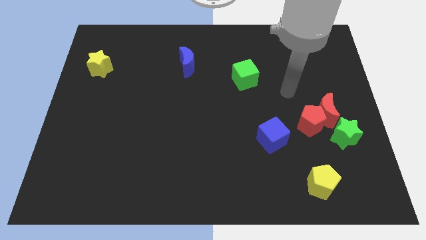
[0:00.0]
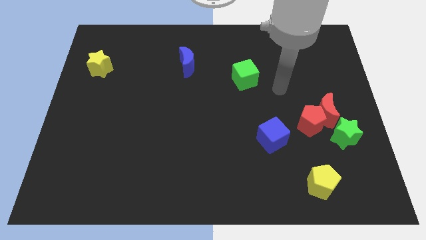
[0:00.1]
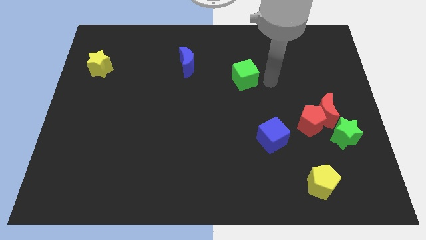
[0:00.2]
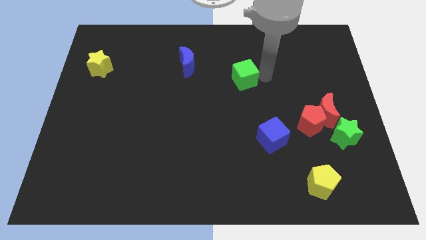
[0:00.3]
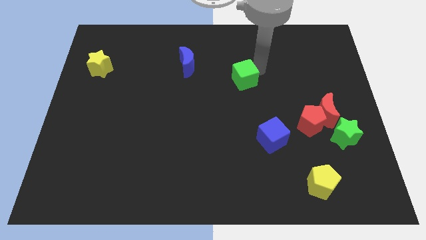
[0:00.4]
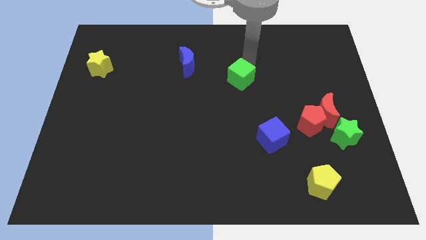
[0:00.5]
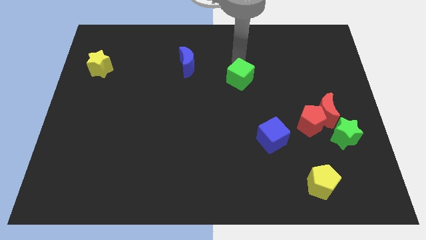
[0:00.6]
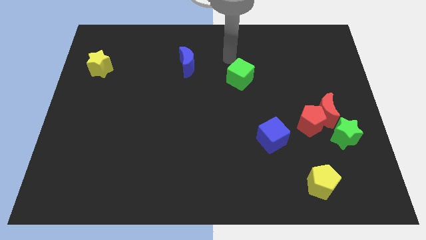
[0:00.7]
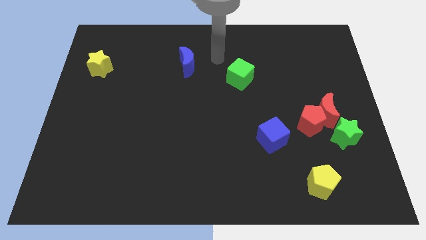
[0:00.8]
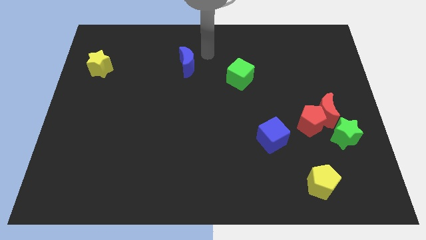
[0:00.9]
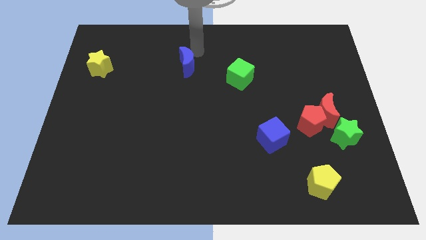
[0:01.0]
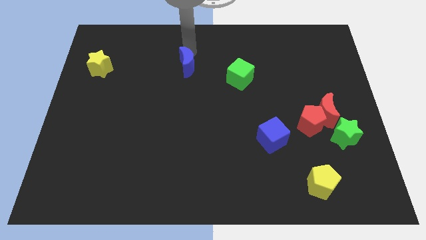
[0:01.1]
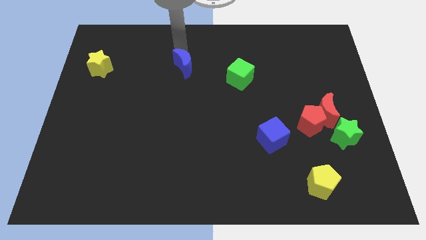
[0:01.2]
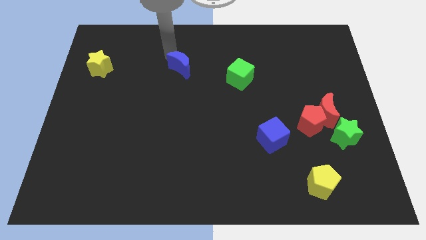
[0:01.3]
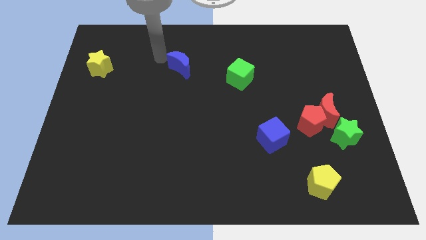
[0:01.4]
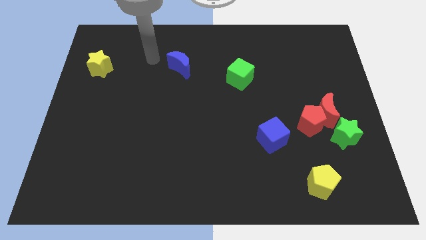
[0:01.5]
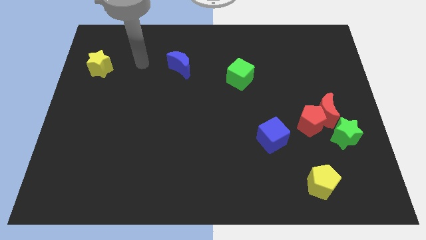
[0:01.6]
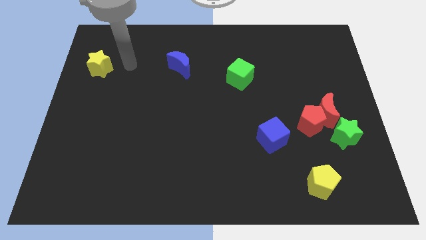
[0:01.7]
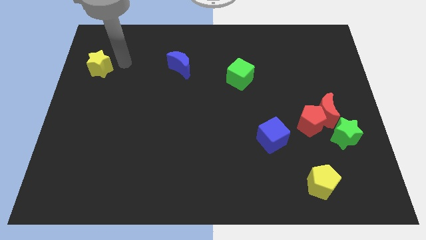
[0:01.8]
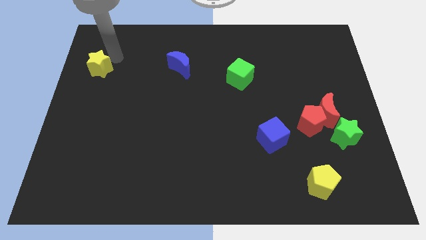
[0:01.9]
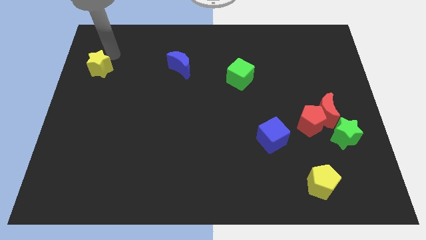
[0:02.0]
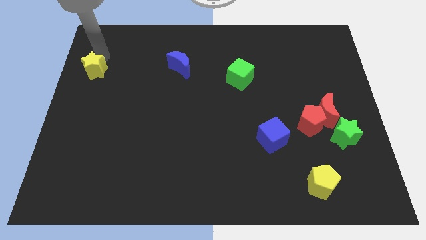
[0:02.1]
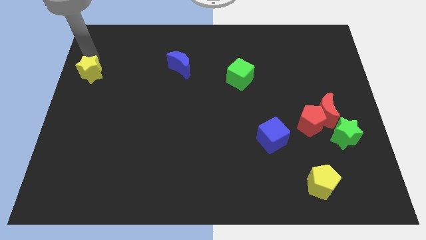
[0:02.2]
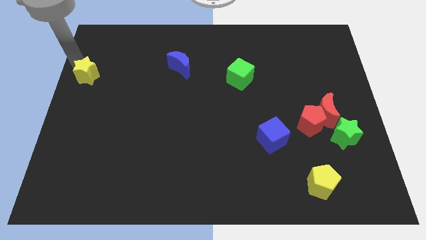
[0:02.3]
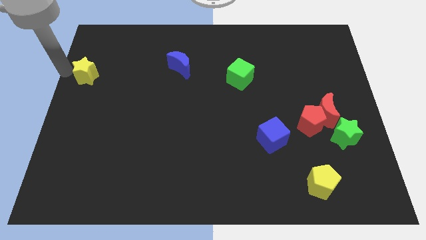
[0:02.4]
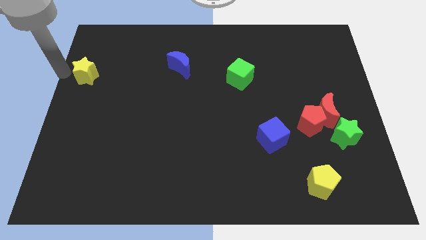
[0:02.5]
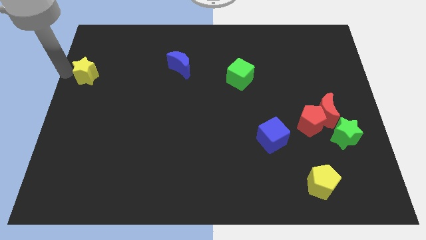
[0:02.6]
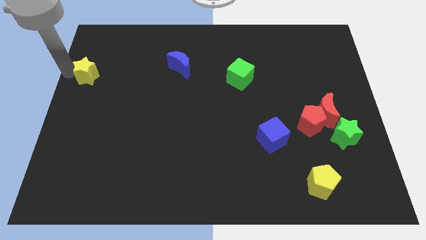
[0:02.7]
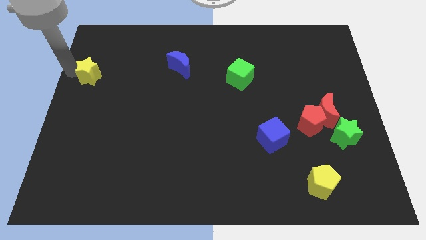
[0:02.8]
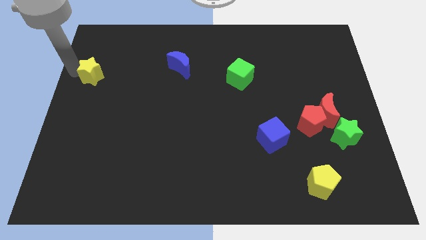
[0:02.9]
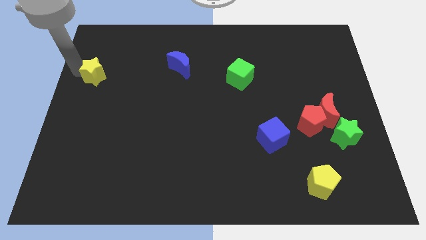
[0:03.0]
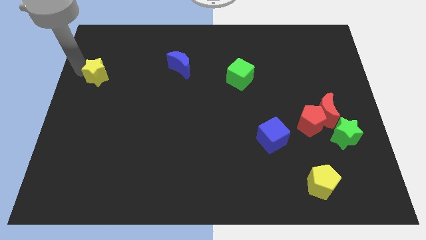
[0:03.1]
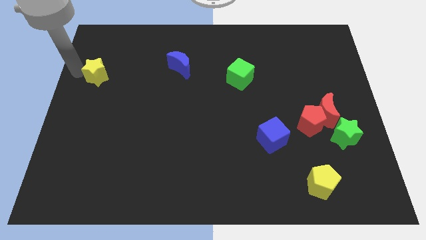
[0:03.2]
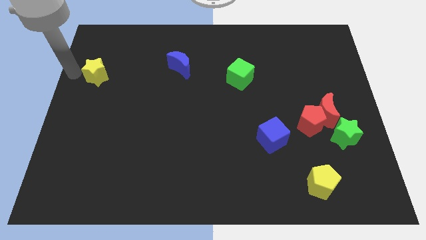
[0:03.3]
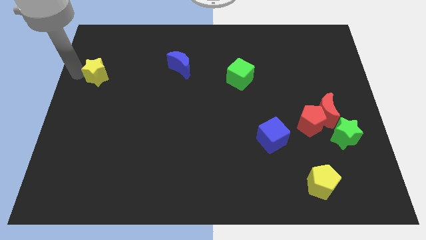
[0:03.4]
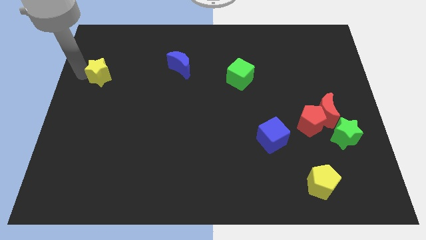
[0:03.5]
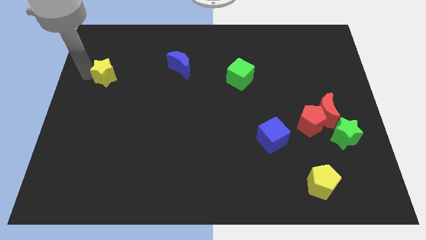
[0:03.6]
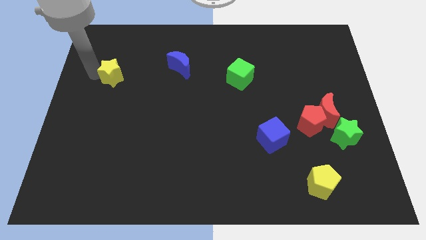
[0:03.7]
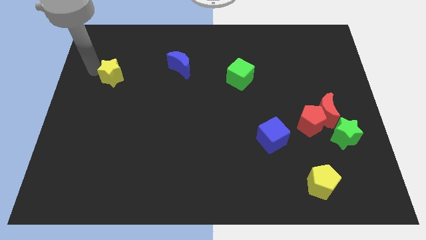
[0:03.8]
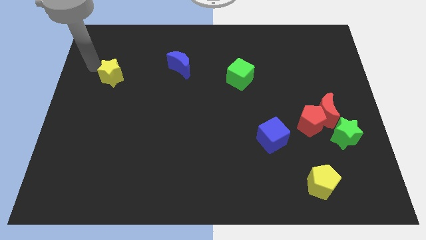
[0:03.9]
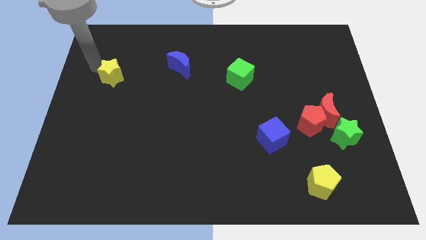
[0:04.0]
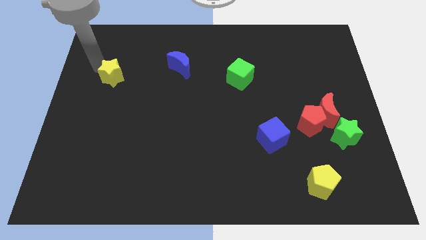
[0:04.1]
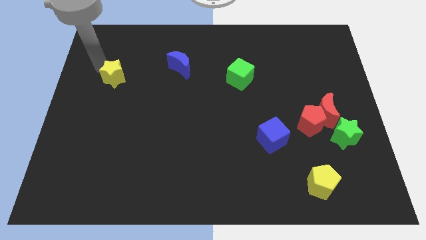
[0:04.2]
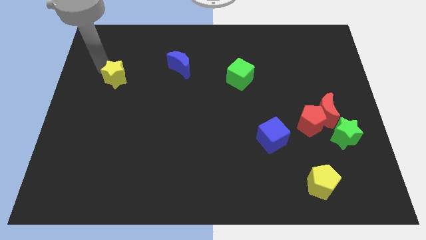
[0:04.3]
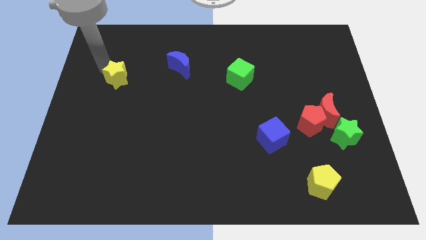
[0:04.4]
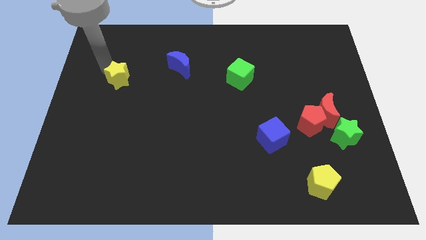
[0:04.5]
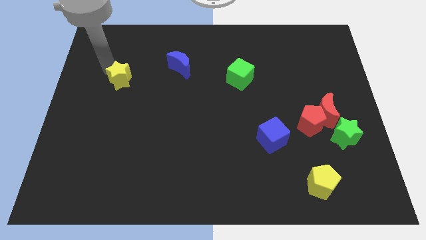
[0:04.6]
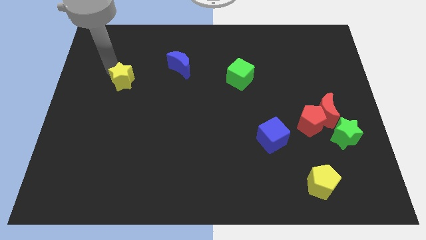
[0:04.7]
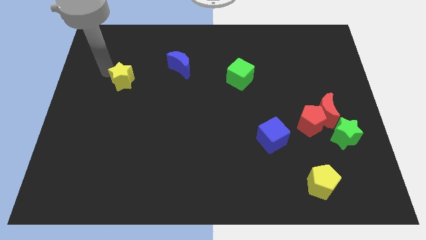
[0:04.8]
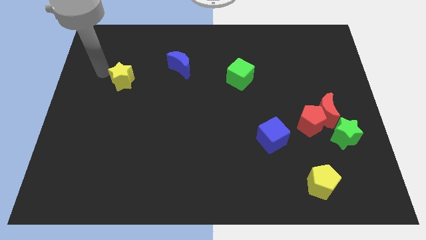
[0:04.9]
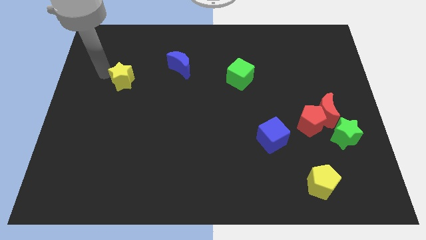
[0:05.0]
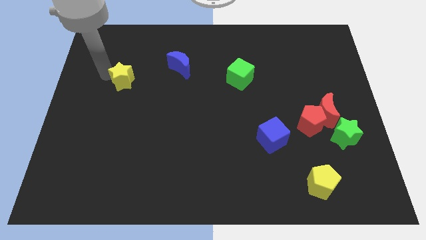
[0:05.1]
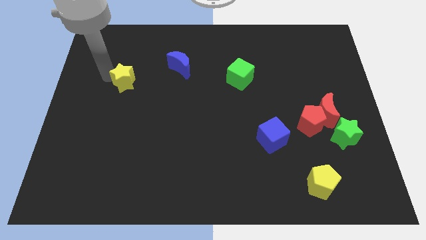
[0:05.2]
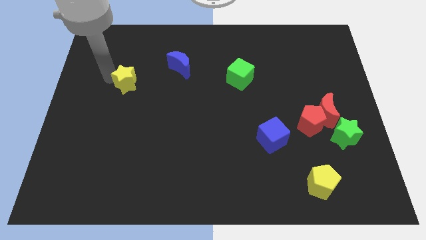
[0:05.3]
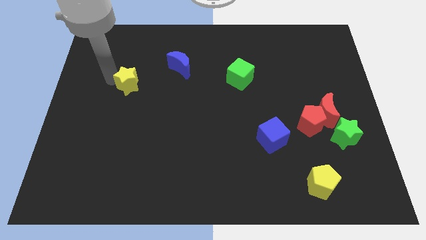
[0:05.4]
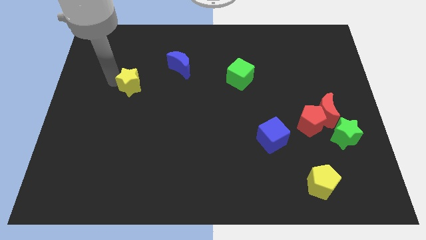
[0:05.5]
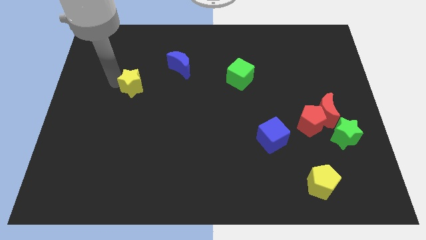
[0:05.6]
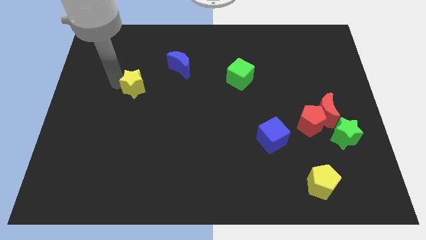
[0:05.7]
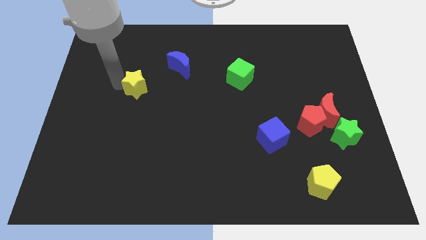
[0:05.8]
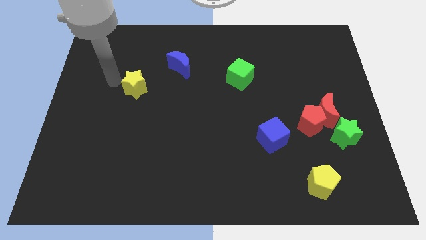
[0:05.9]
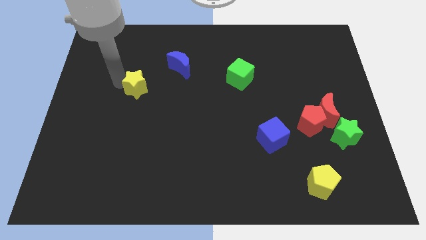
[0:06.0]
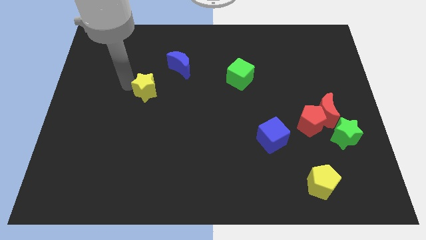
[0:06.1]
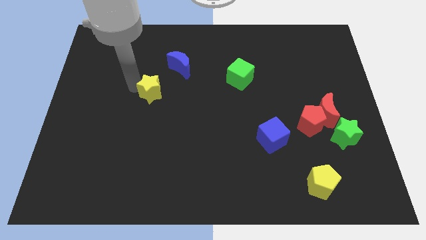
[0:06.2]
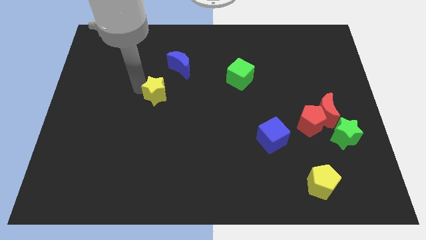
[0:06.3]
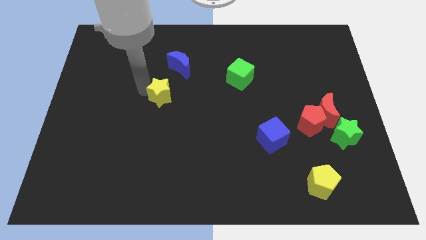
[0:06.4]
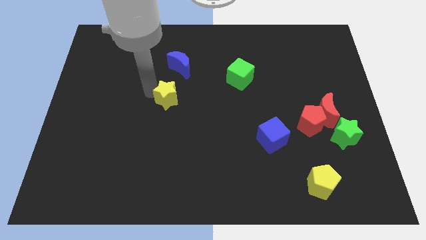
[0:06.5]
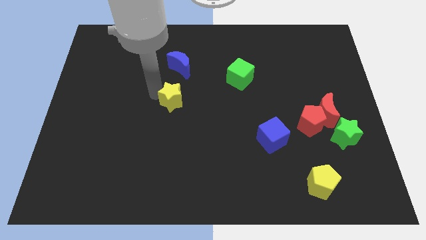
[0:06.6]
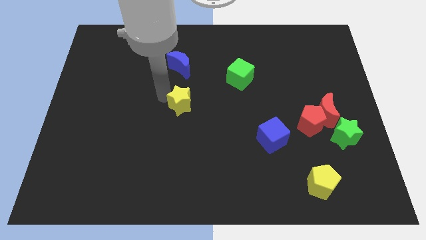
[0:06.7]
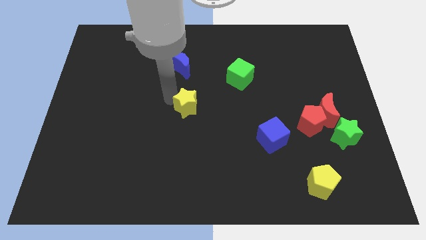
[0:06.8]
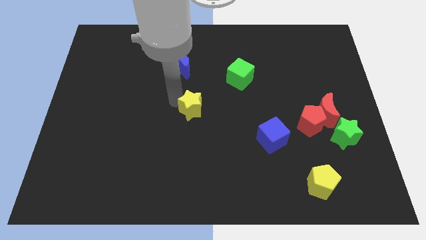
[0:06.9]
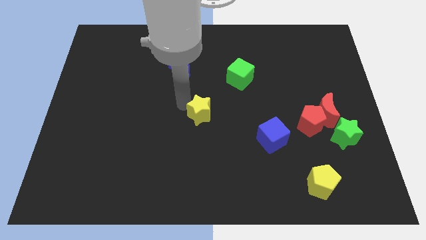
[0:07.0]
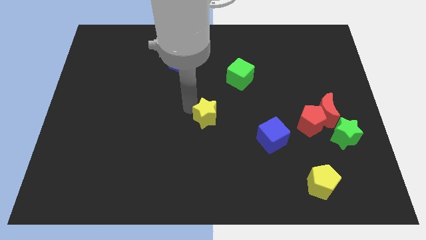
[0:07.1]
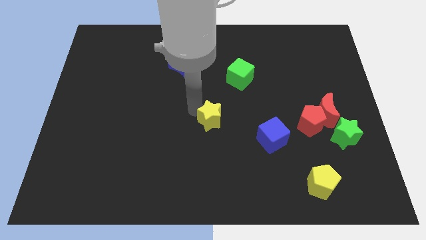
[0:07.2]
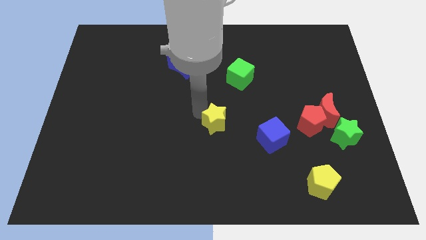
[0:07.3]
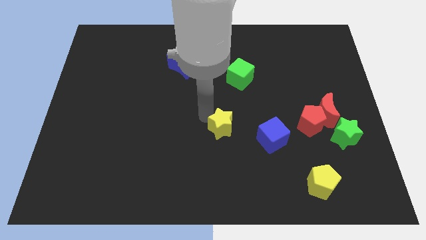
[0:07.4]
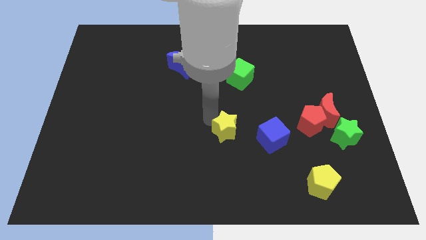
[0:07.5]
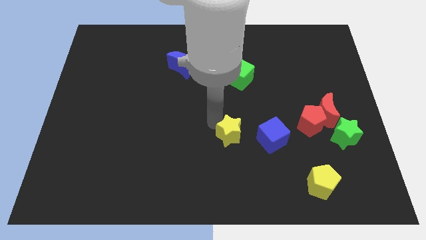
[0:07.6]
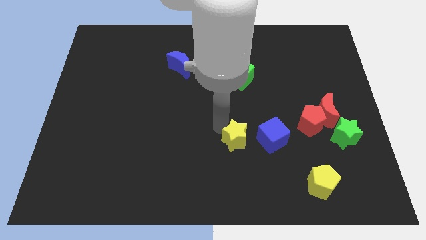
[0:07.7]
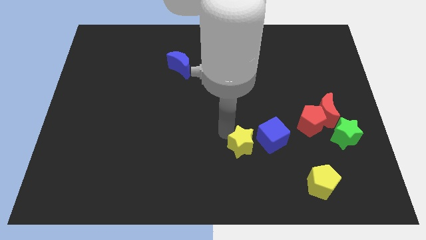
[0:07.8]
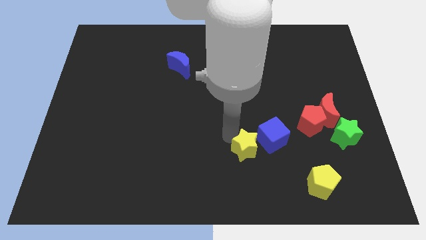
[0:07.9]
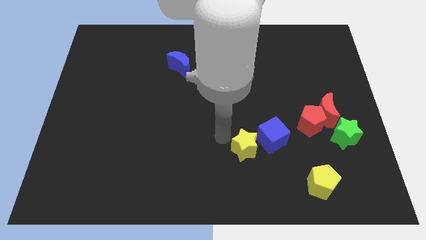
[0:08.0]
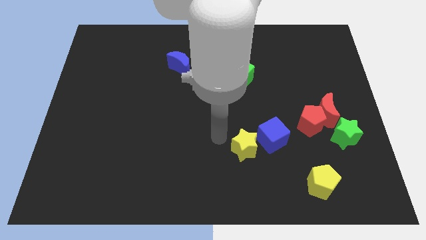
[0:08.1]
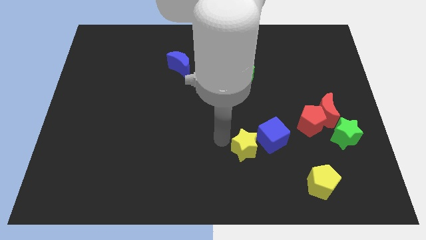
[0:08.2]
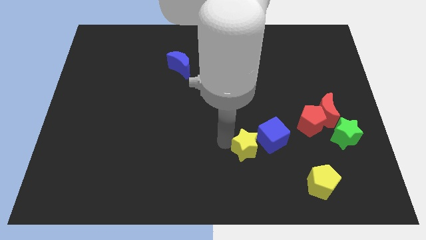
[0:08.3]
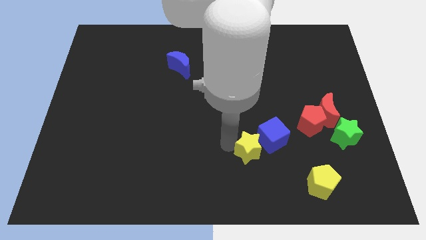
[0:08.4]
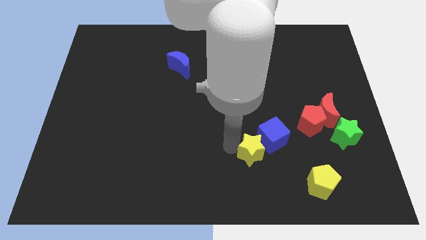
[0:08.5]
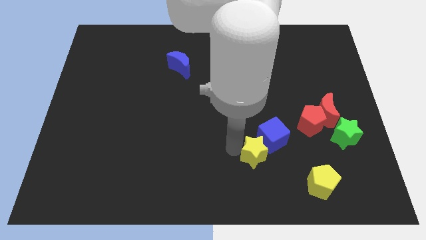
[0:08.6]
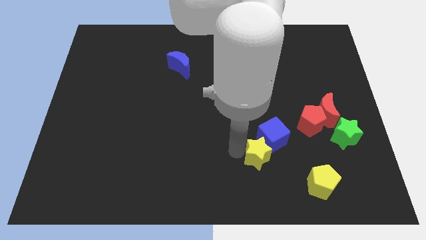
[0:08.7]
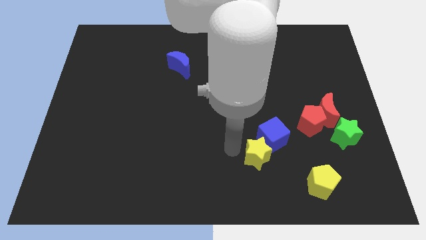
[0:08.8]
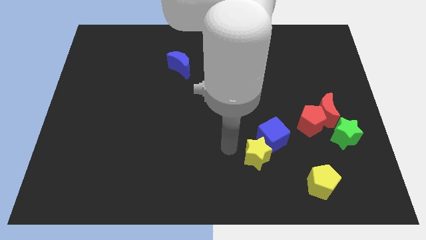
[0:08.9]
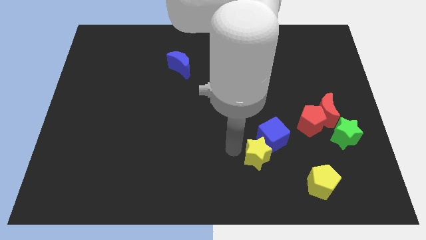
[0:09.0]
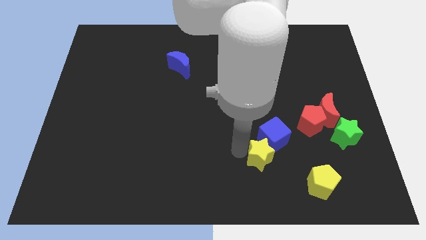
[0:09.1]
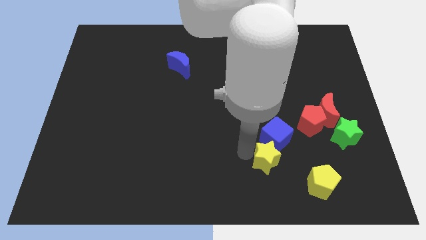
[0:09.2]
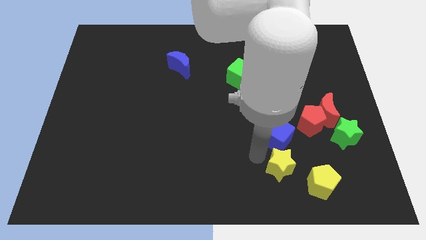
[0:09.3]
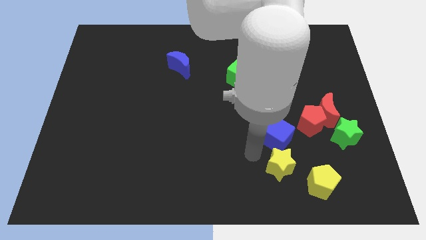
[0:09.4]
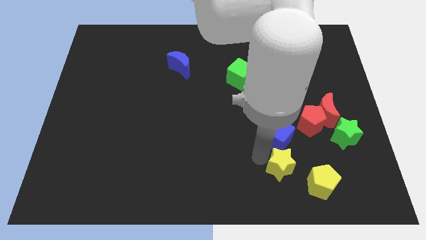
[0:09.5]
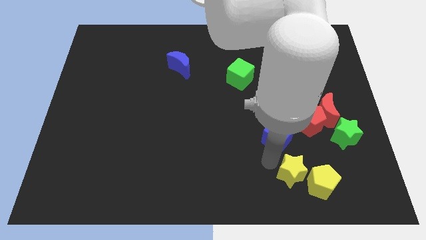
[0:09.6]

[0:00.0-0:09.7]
put the yellow star towards the yellow pentagon
